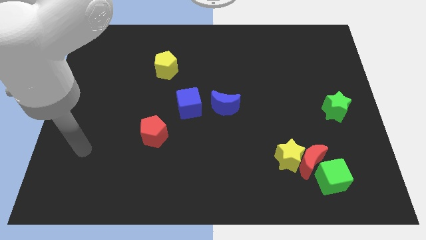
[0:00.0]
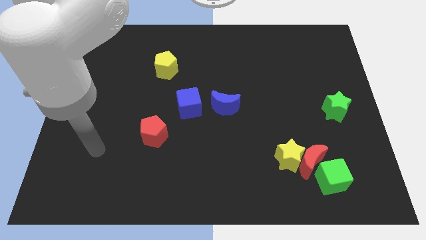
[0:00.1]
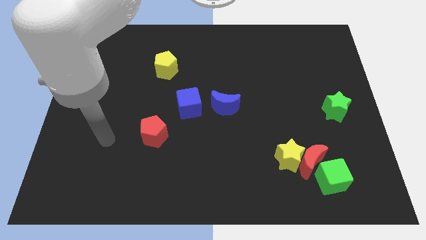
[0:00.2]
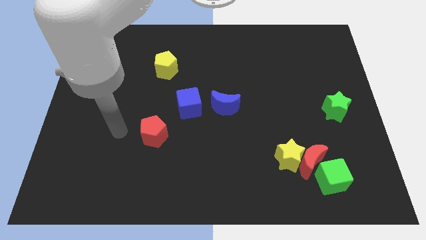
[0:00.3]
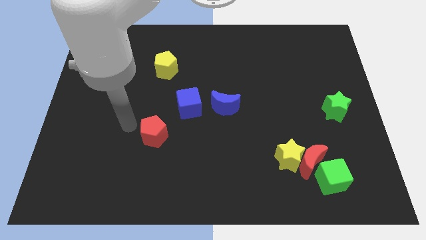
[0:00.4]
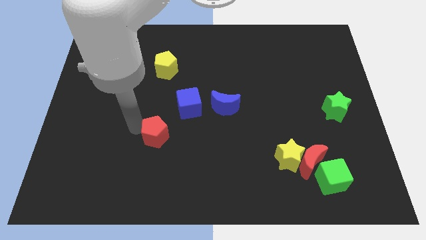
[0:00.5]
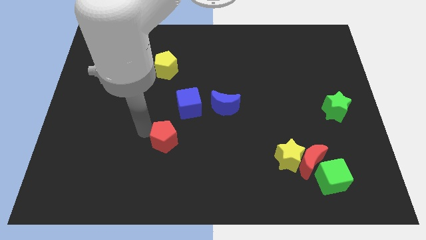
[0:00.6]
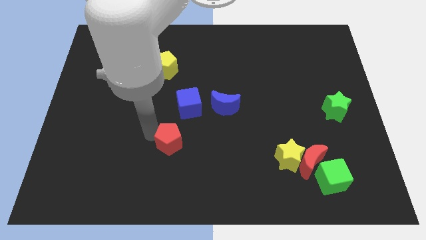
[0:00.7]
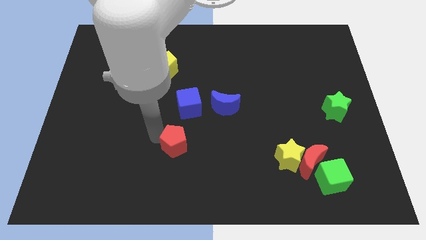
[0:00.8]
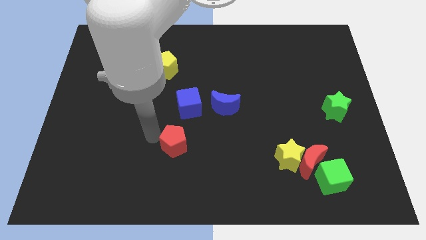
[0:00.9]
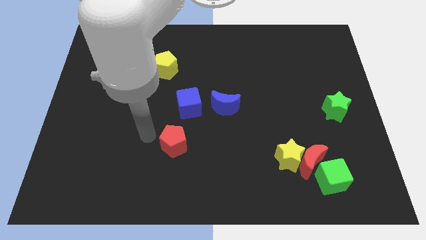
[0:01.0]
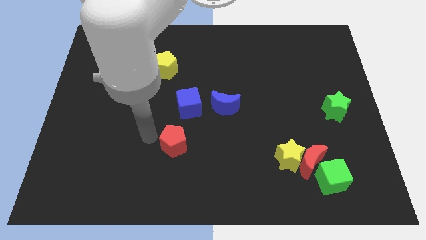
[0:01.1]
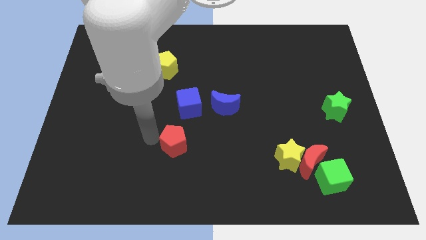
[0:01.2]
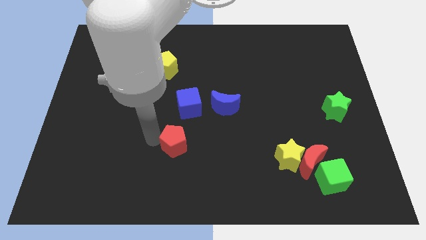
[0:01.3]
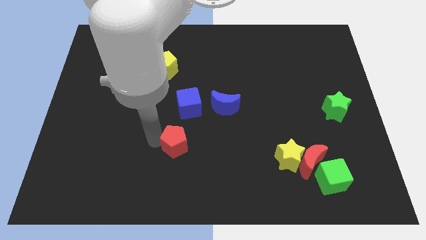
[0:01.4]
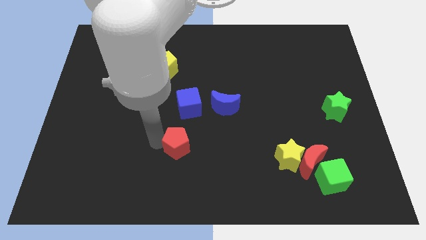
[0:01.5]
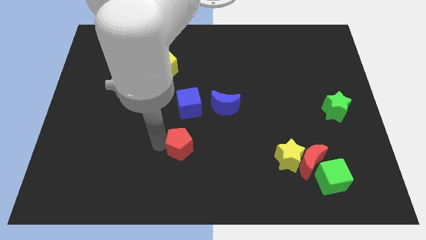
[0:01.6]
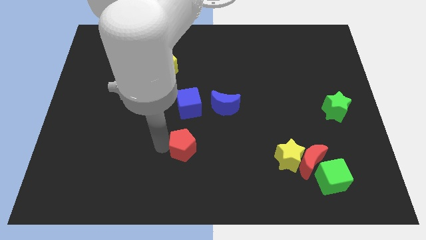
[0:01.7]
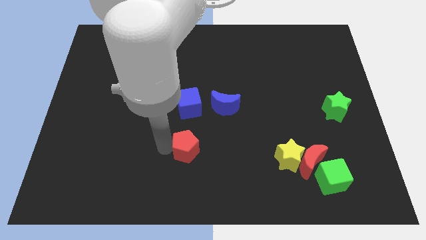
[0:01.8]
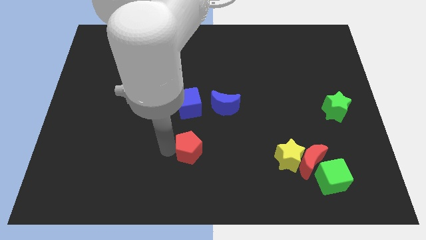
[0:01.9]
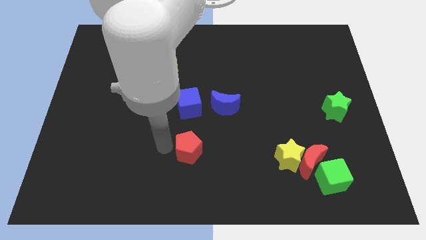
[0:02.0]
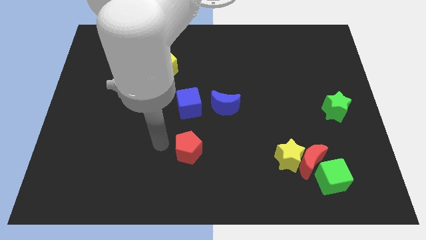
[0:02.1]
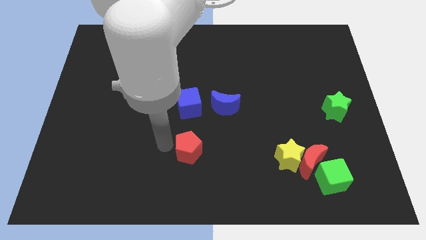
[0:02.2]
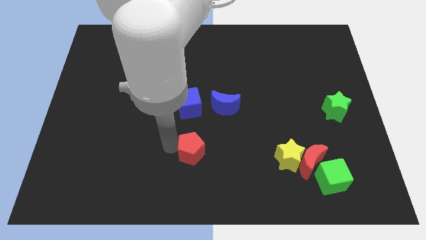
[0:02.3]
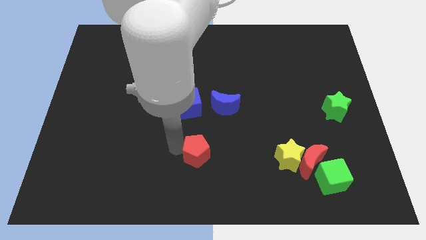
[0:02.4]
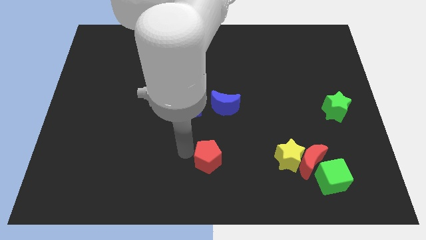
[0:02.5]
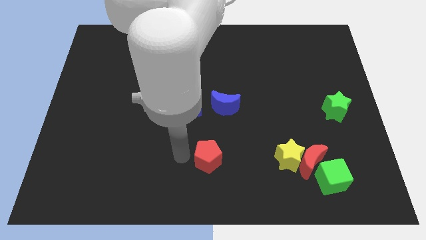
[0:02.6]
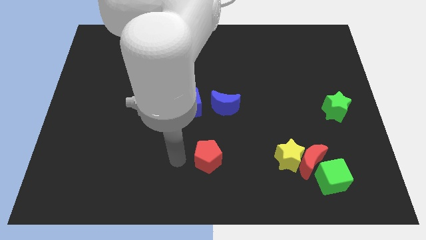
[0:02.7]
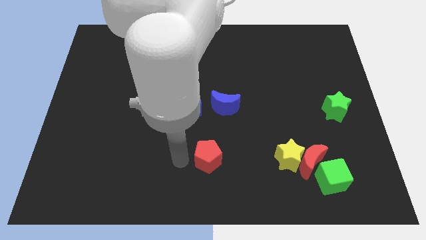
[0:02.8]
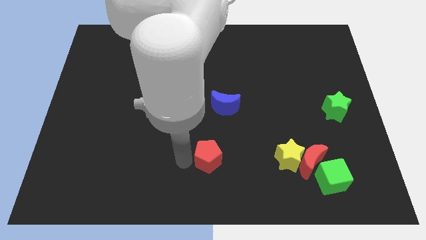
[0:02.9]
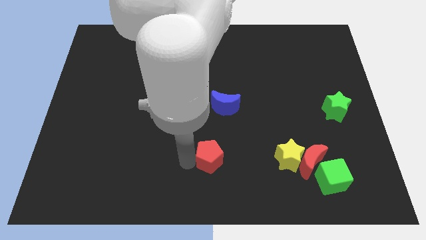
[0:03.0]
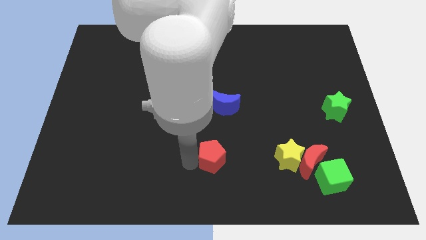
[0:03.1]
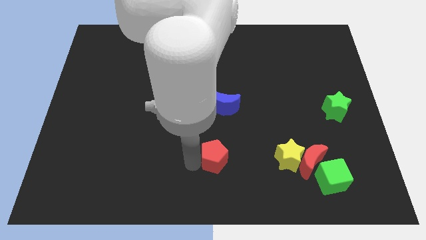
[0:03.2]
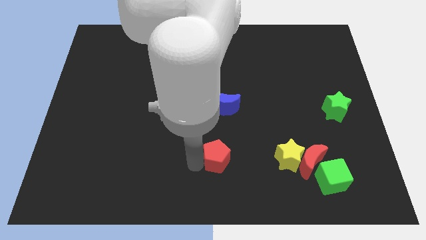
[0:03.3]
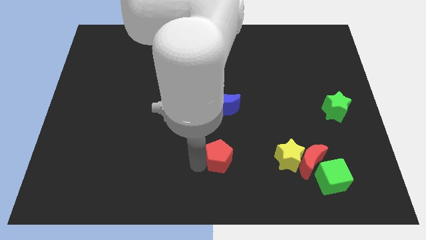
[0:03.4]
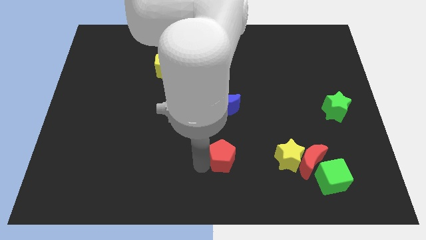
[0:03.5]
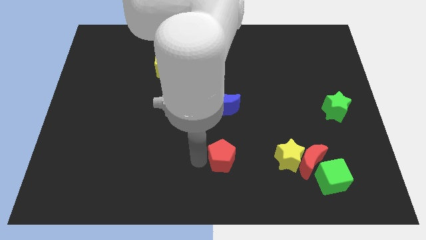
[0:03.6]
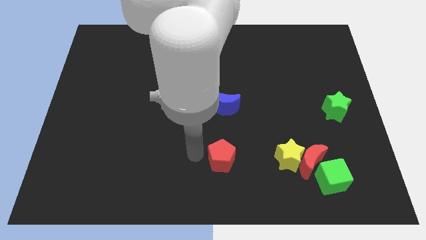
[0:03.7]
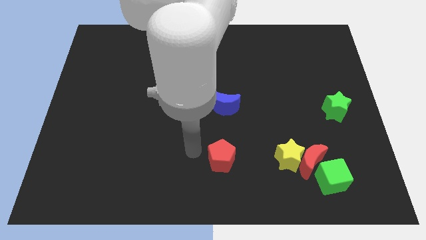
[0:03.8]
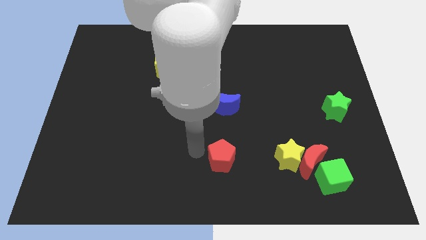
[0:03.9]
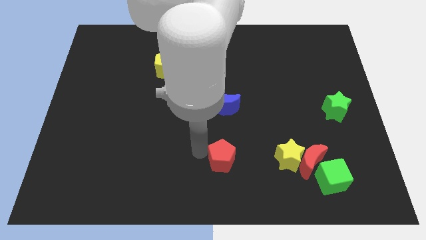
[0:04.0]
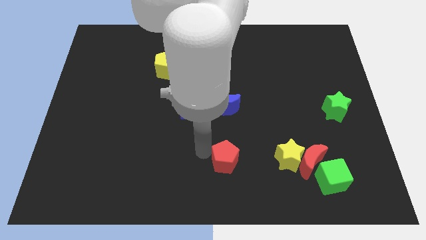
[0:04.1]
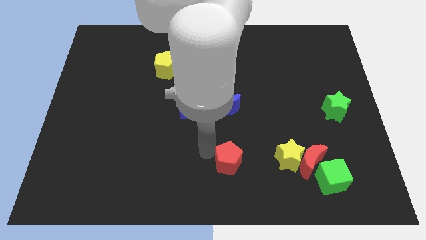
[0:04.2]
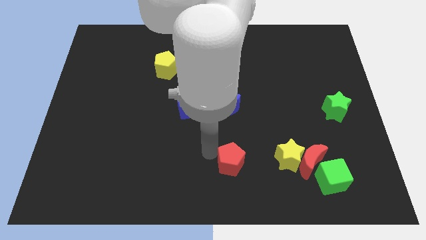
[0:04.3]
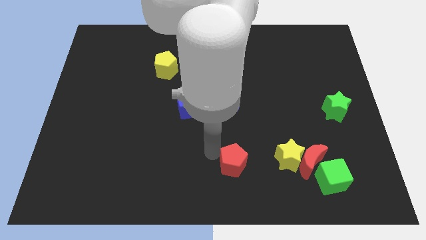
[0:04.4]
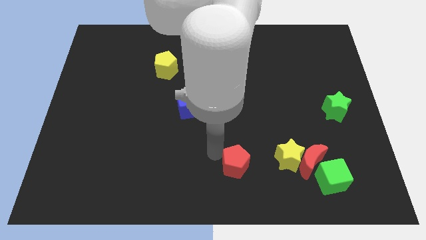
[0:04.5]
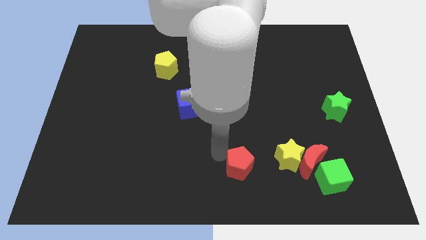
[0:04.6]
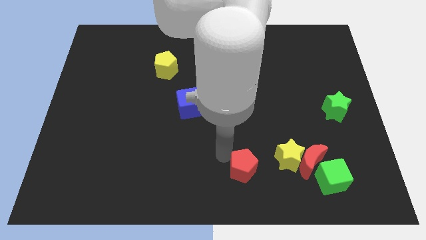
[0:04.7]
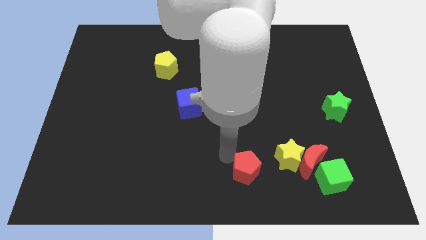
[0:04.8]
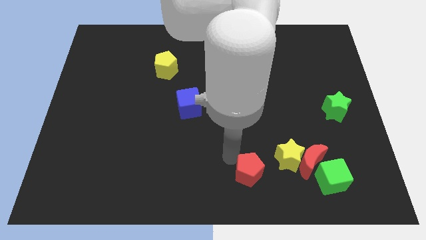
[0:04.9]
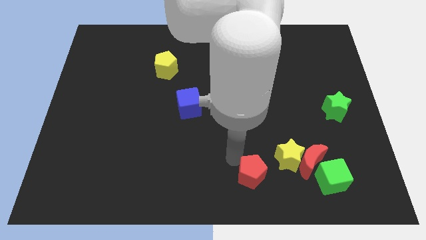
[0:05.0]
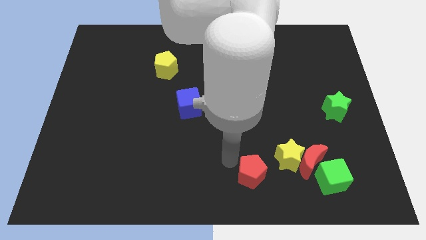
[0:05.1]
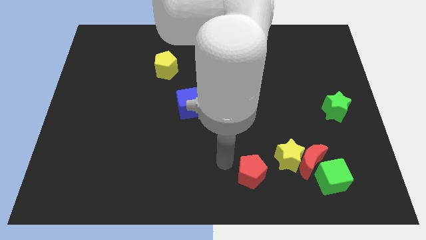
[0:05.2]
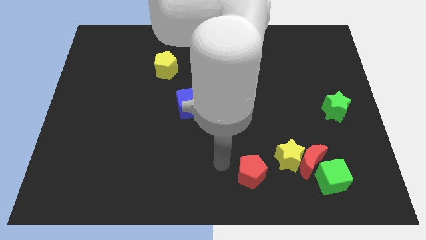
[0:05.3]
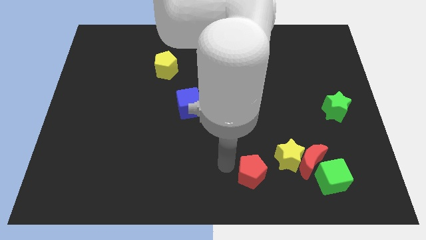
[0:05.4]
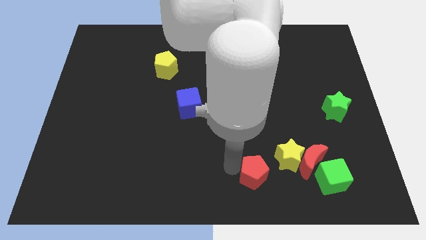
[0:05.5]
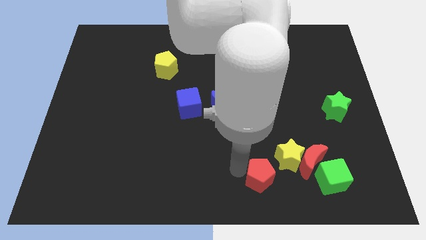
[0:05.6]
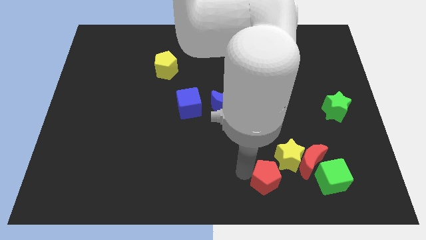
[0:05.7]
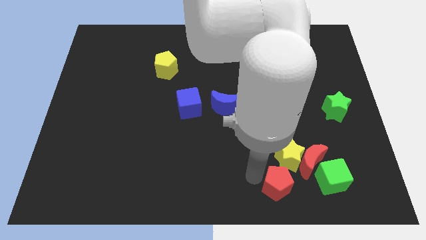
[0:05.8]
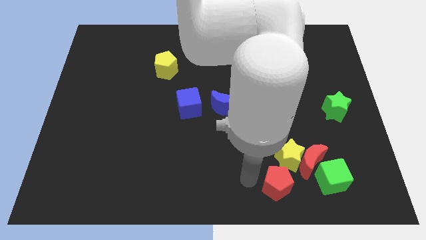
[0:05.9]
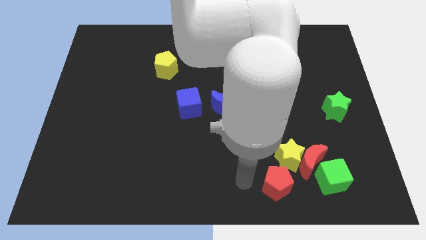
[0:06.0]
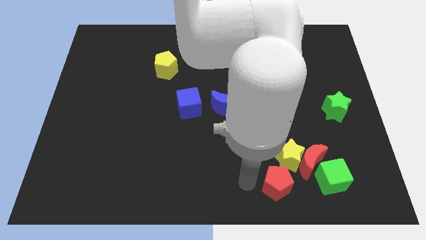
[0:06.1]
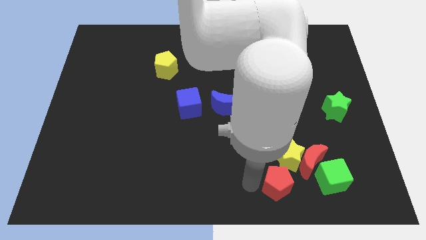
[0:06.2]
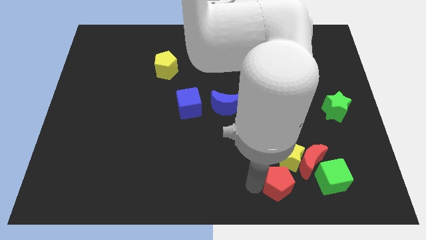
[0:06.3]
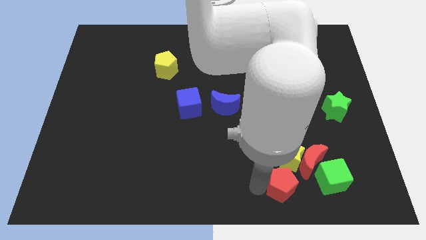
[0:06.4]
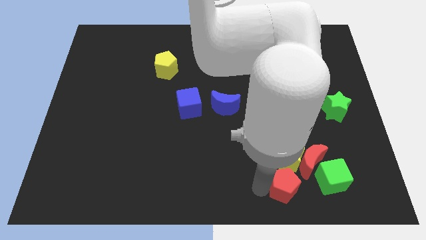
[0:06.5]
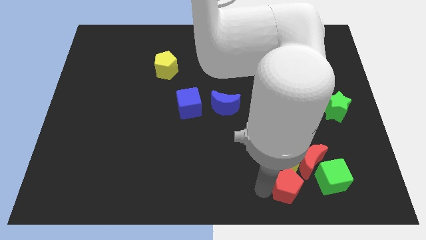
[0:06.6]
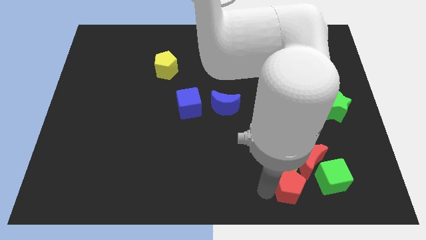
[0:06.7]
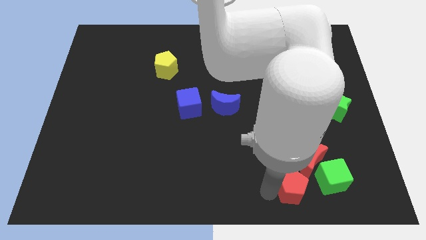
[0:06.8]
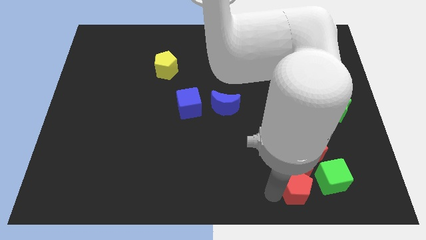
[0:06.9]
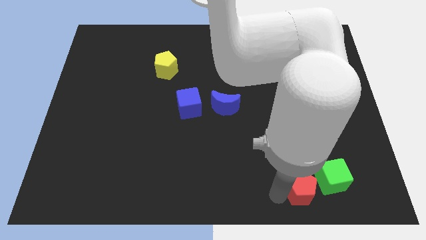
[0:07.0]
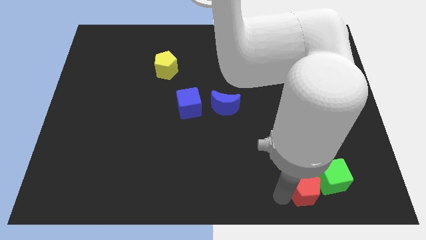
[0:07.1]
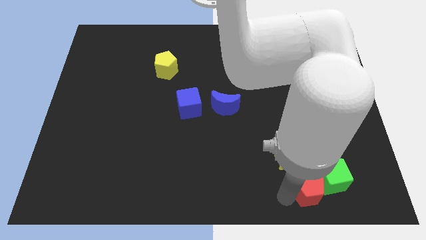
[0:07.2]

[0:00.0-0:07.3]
push the red pentagon next to the green cube
